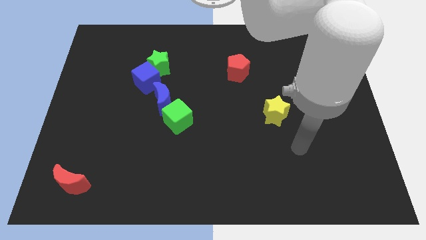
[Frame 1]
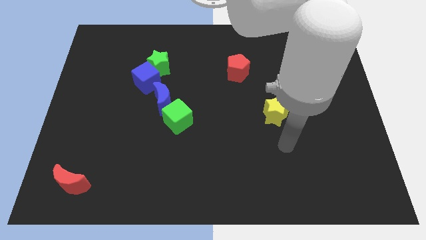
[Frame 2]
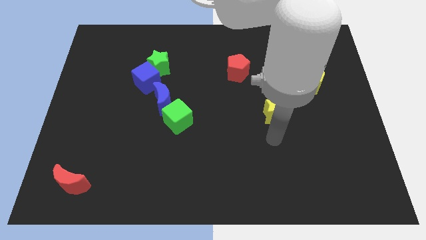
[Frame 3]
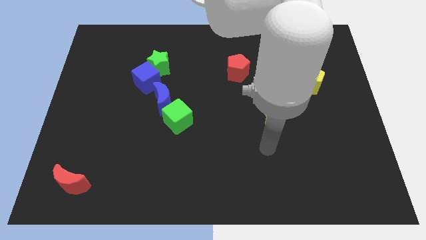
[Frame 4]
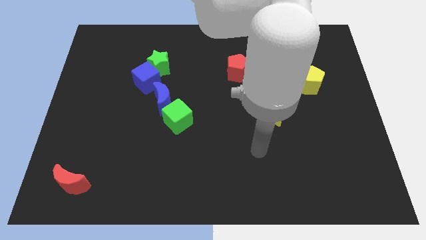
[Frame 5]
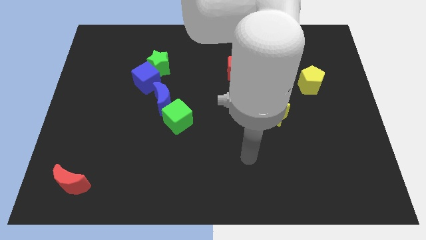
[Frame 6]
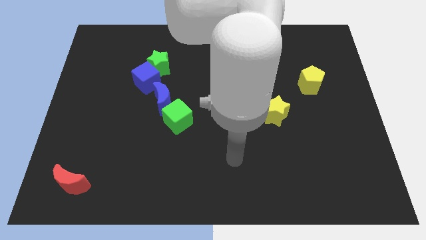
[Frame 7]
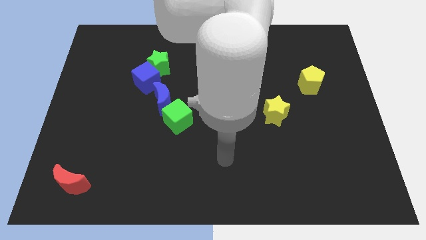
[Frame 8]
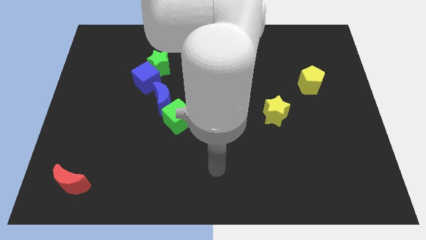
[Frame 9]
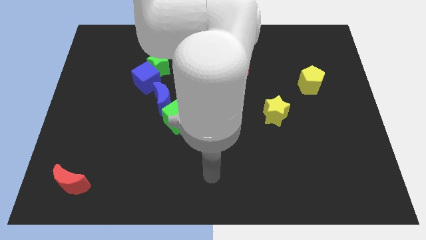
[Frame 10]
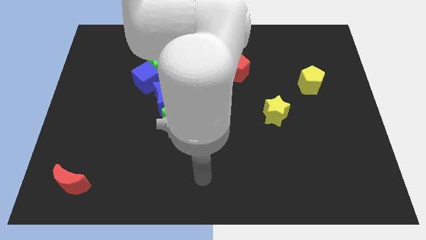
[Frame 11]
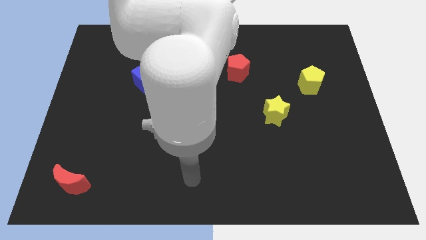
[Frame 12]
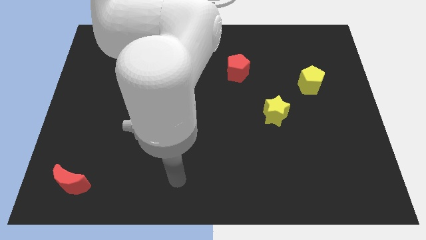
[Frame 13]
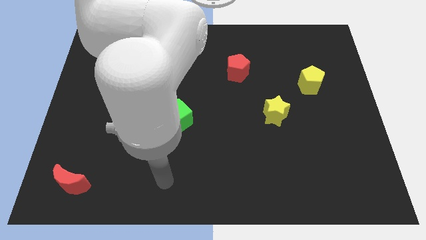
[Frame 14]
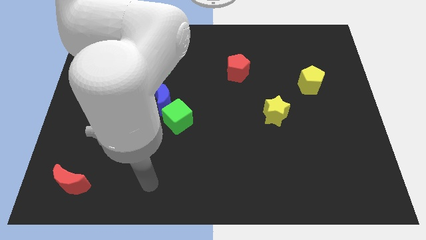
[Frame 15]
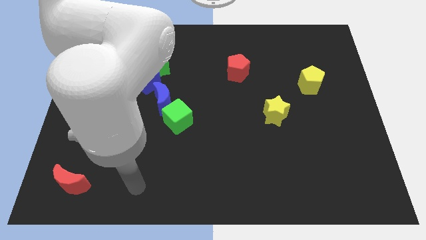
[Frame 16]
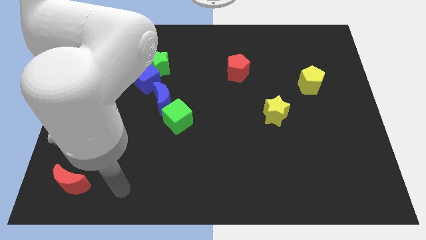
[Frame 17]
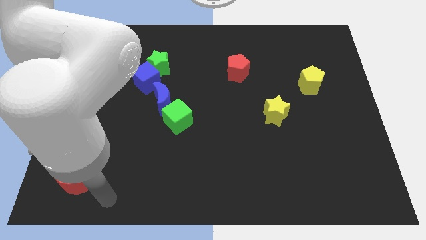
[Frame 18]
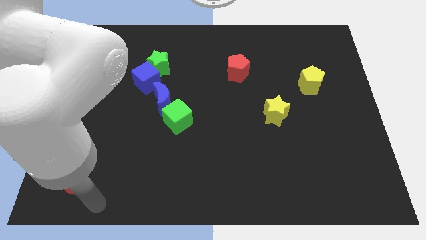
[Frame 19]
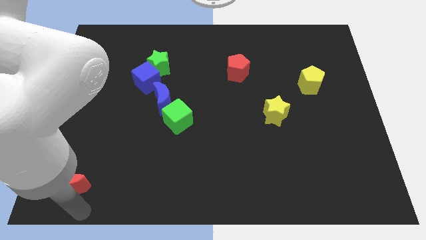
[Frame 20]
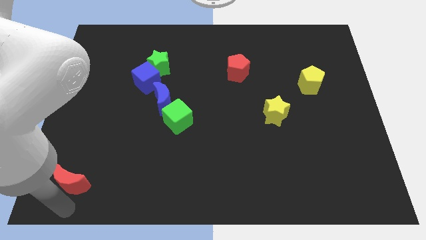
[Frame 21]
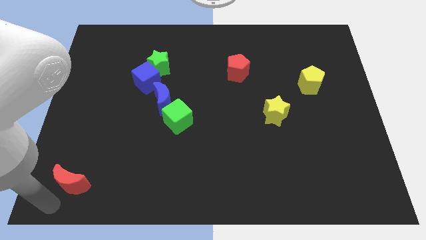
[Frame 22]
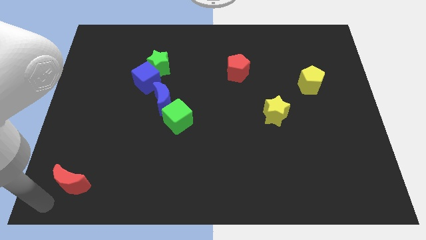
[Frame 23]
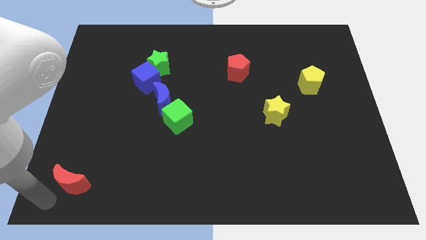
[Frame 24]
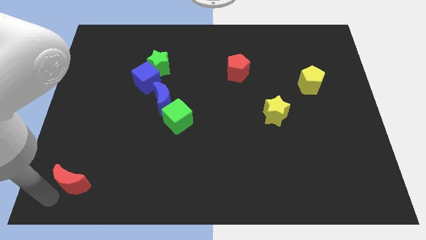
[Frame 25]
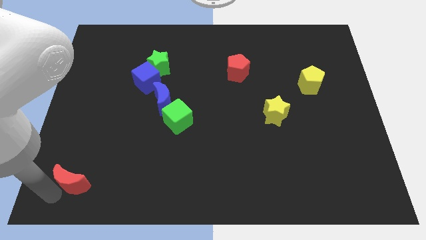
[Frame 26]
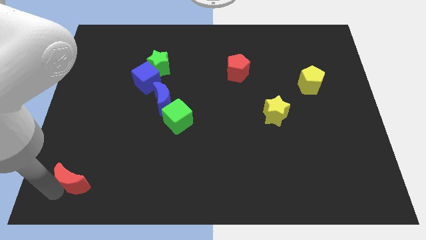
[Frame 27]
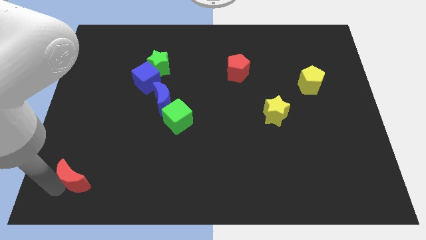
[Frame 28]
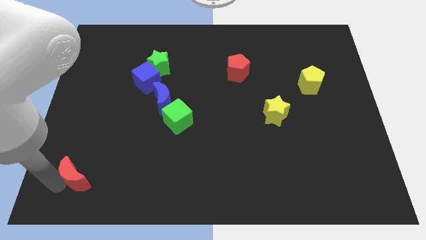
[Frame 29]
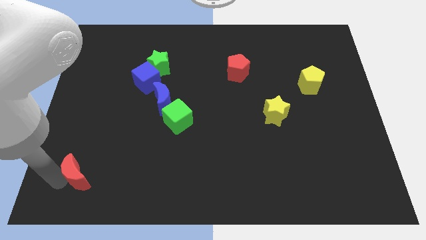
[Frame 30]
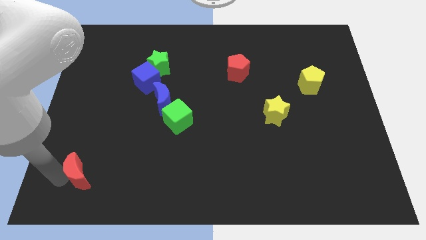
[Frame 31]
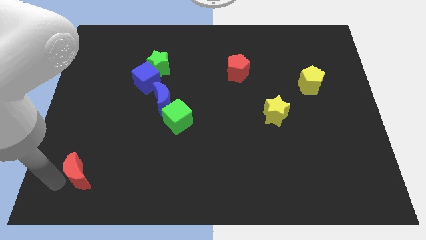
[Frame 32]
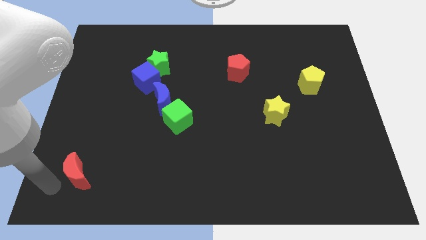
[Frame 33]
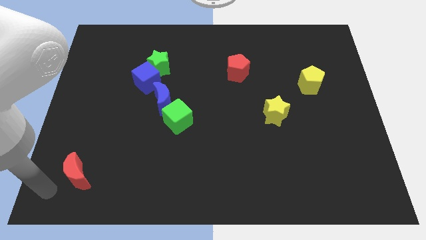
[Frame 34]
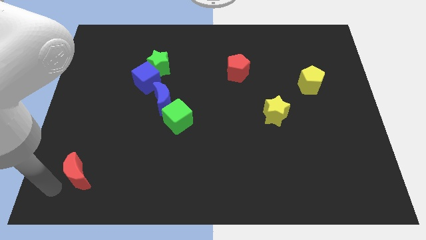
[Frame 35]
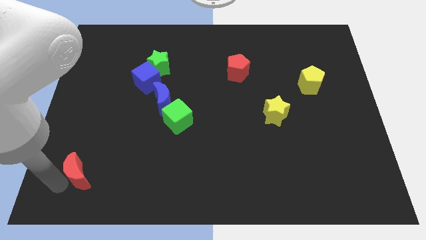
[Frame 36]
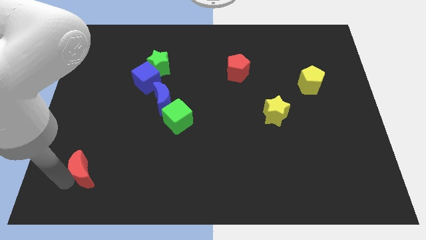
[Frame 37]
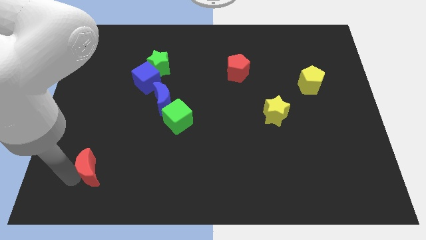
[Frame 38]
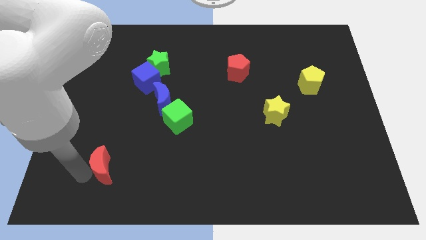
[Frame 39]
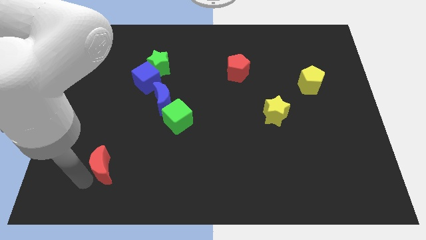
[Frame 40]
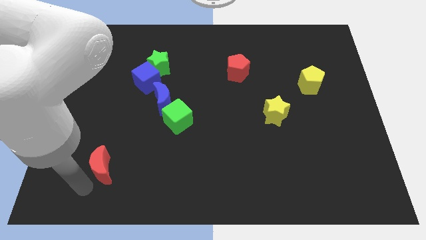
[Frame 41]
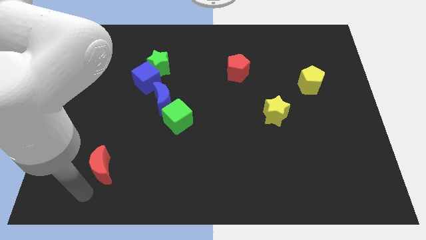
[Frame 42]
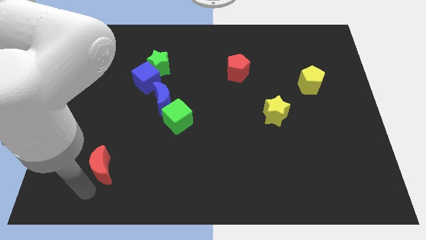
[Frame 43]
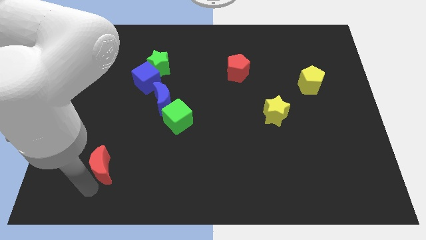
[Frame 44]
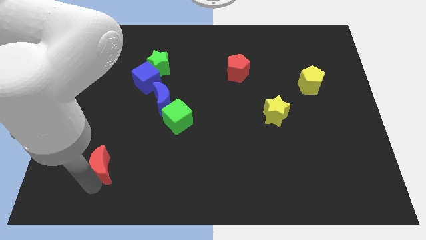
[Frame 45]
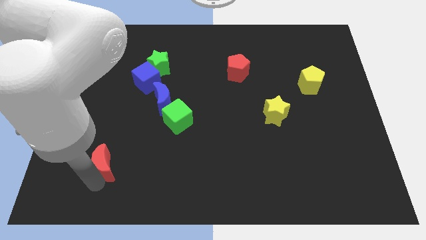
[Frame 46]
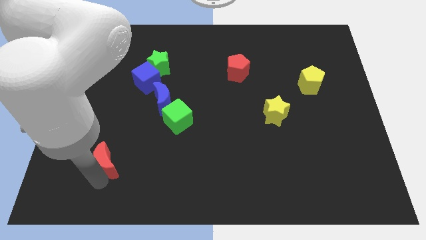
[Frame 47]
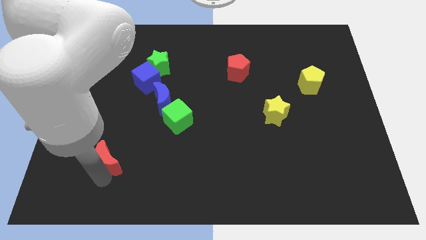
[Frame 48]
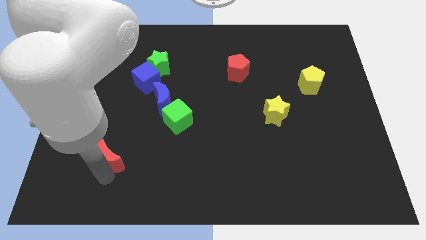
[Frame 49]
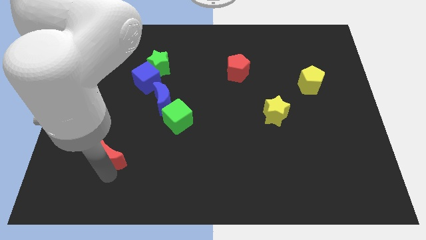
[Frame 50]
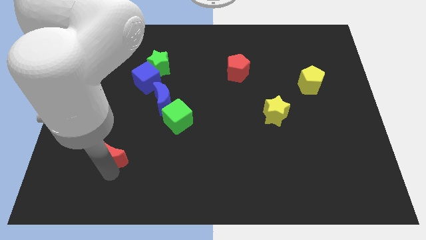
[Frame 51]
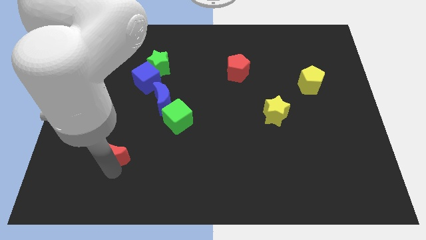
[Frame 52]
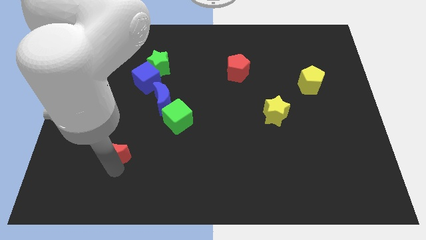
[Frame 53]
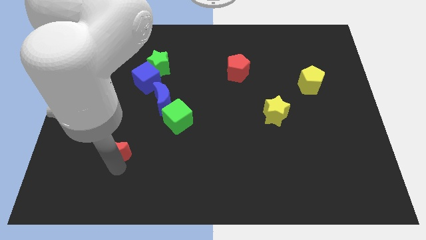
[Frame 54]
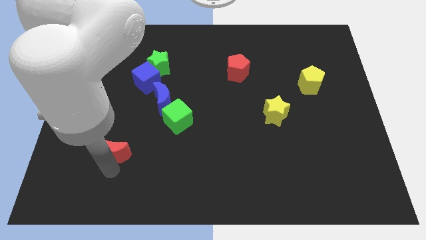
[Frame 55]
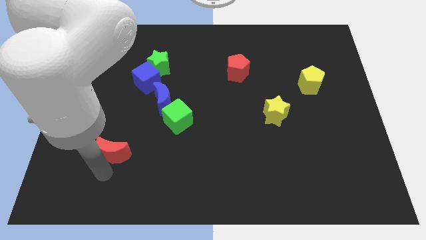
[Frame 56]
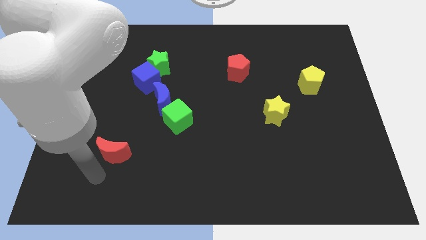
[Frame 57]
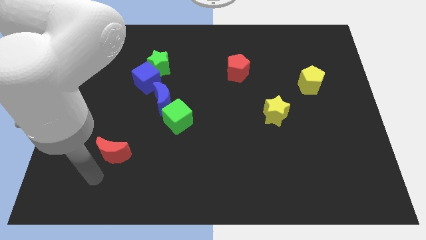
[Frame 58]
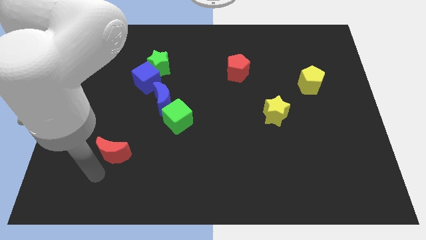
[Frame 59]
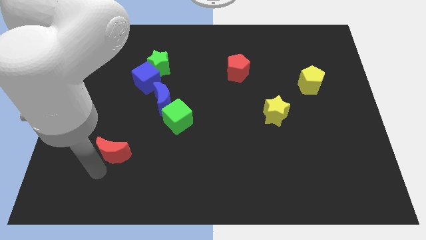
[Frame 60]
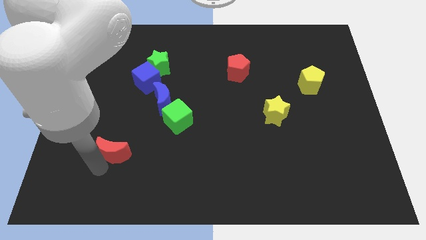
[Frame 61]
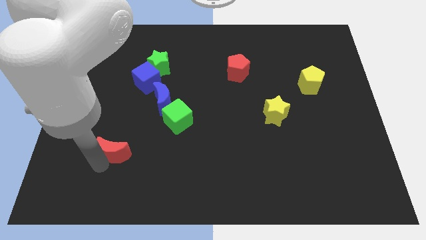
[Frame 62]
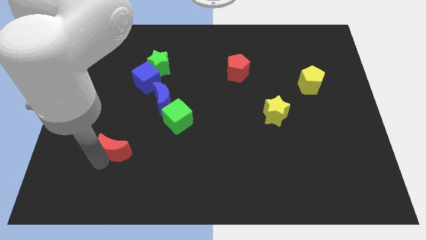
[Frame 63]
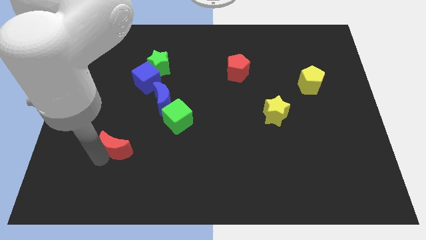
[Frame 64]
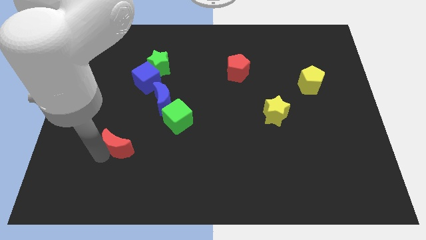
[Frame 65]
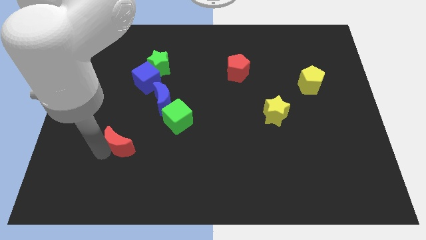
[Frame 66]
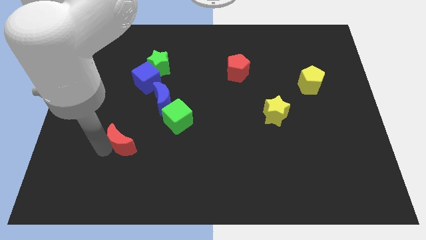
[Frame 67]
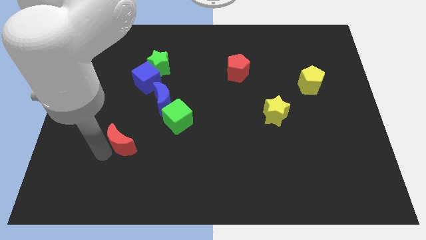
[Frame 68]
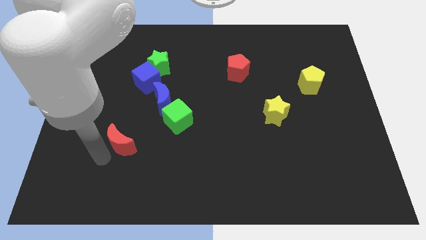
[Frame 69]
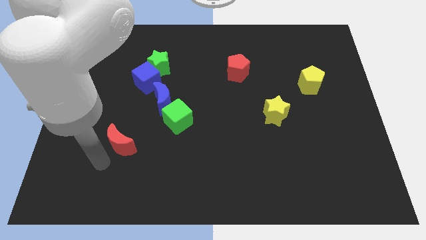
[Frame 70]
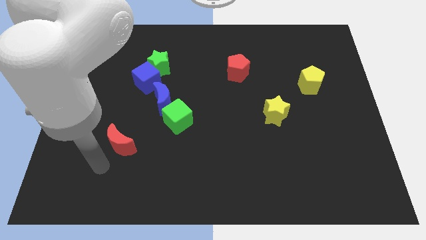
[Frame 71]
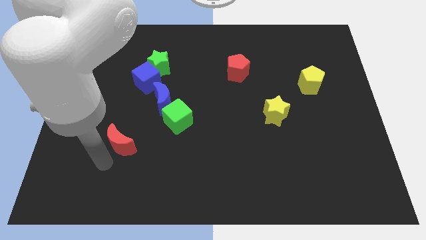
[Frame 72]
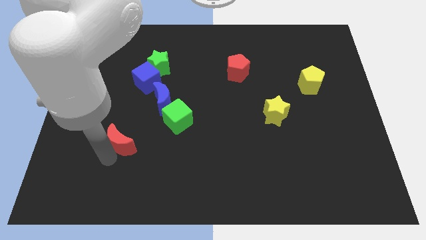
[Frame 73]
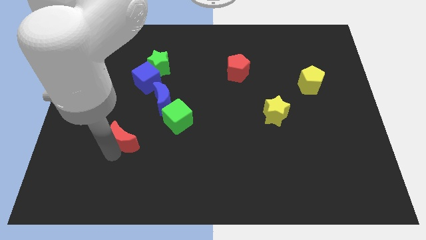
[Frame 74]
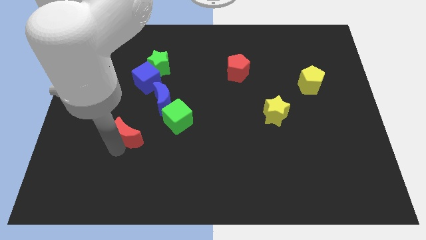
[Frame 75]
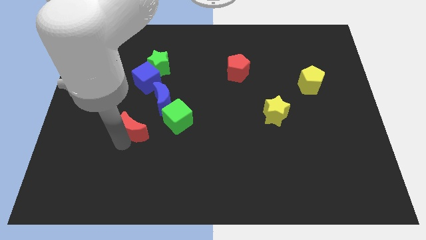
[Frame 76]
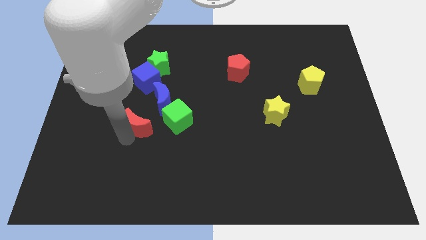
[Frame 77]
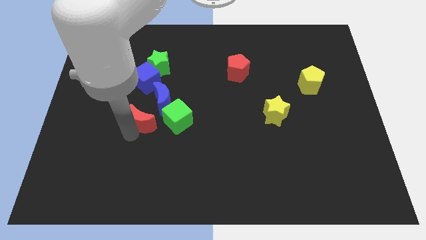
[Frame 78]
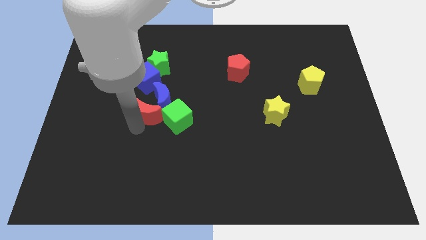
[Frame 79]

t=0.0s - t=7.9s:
push the red moon towards the blue moon
